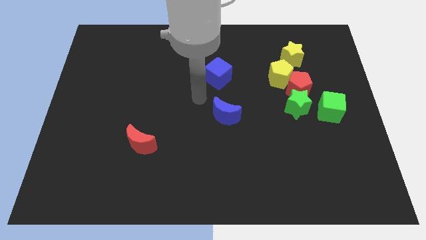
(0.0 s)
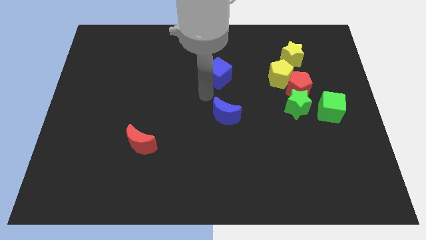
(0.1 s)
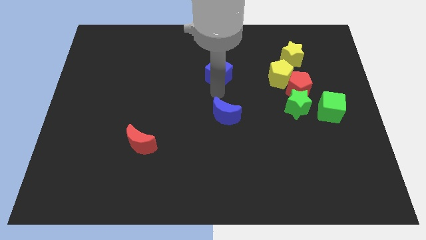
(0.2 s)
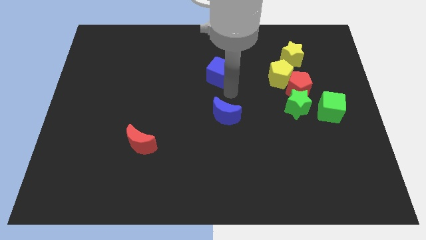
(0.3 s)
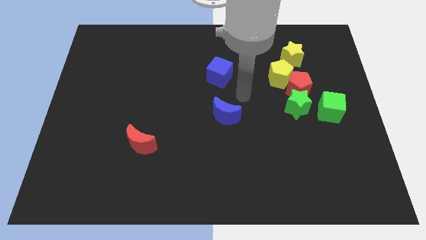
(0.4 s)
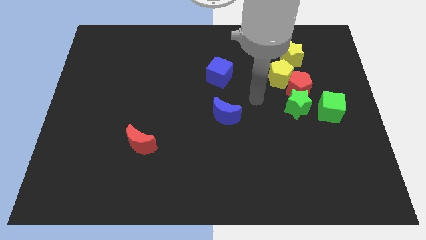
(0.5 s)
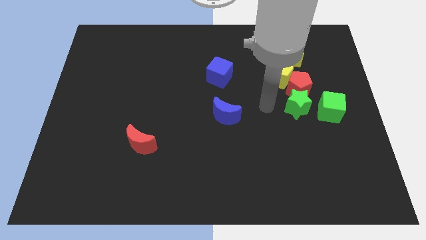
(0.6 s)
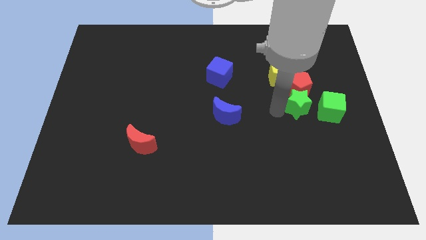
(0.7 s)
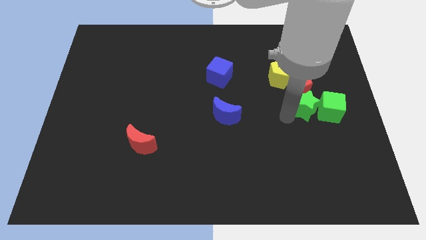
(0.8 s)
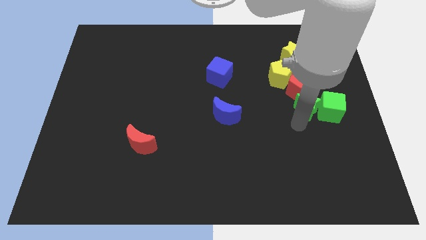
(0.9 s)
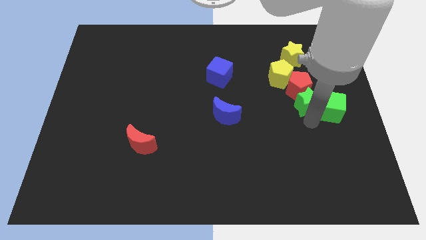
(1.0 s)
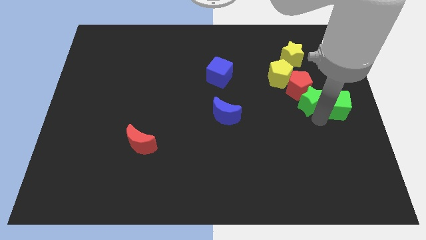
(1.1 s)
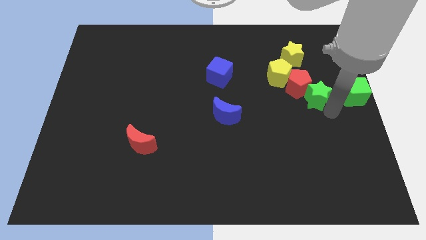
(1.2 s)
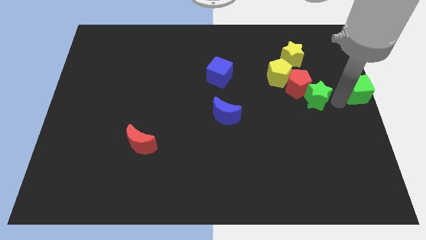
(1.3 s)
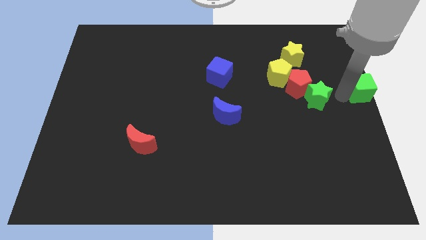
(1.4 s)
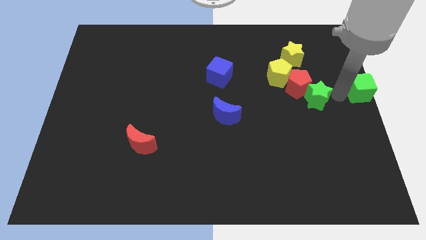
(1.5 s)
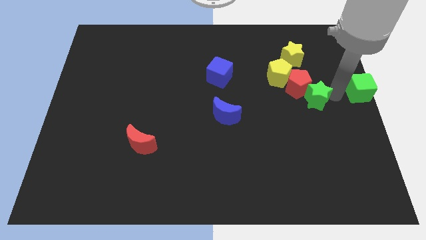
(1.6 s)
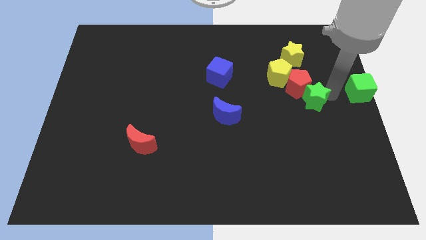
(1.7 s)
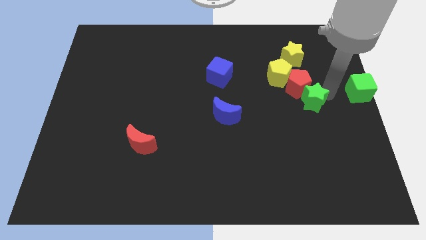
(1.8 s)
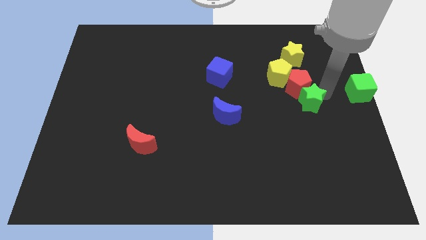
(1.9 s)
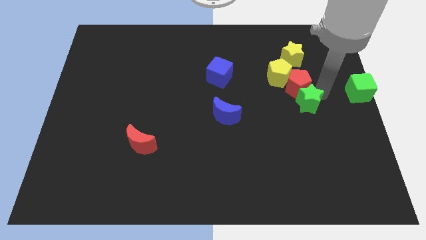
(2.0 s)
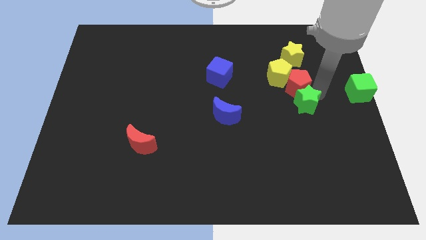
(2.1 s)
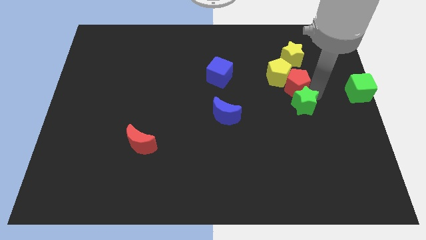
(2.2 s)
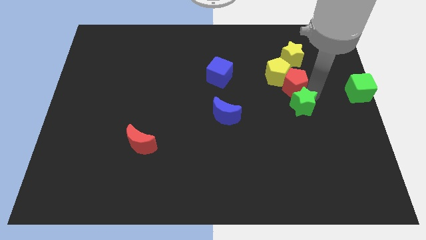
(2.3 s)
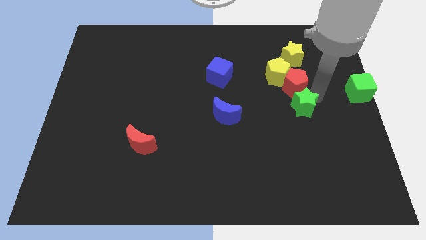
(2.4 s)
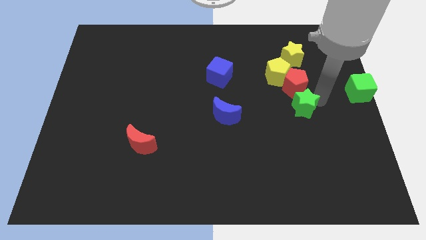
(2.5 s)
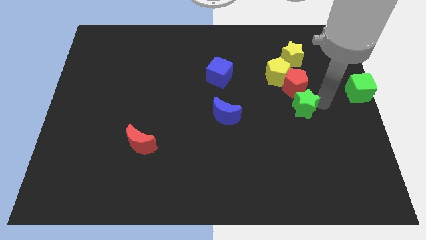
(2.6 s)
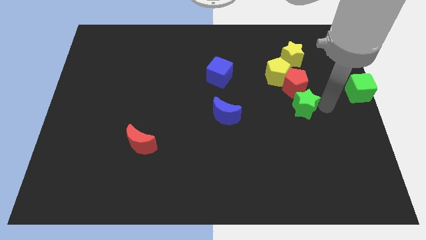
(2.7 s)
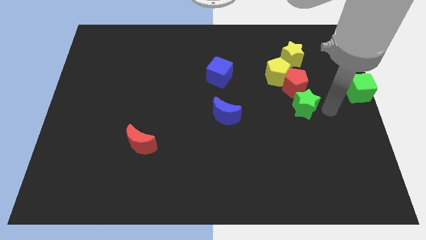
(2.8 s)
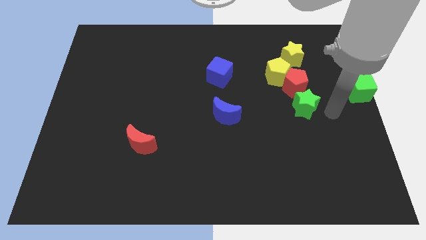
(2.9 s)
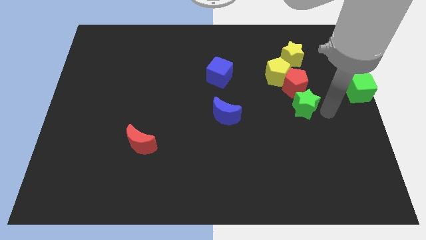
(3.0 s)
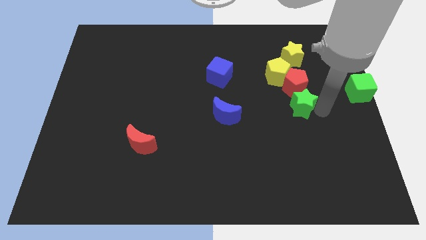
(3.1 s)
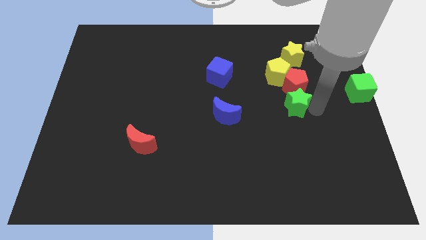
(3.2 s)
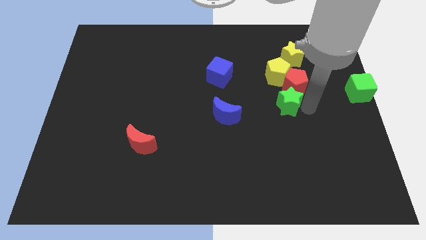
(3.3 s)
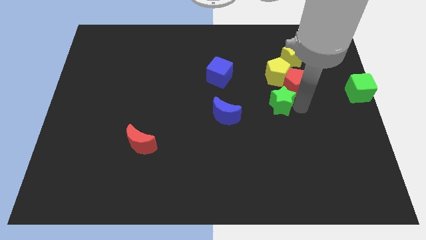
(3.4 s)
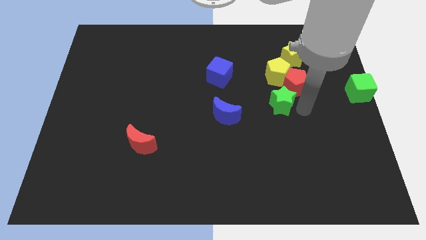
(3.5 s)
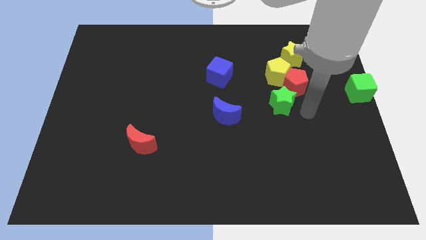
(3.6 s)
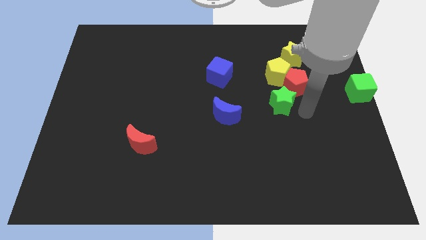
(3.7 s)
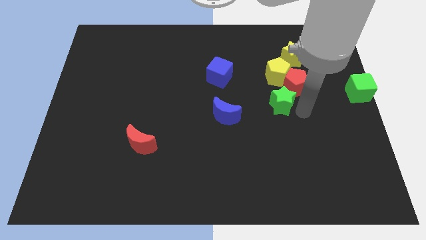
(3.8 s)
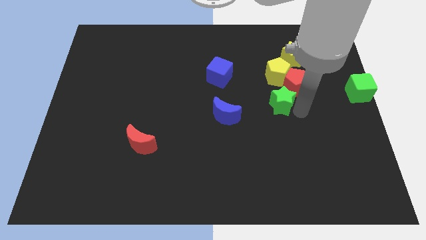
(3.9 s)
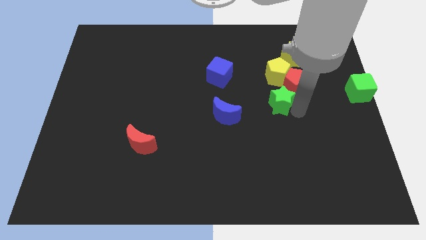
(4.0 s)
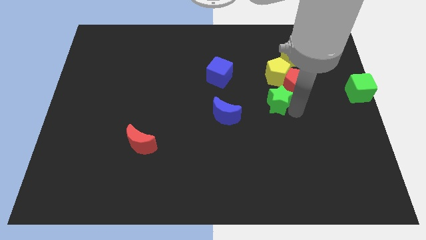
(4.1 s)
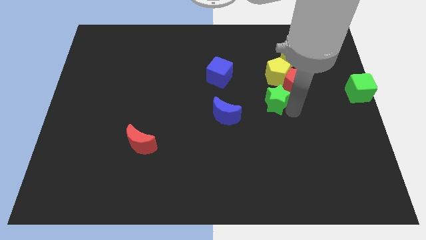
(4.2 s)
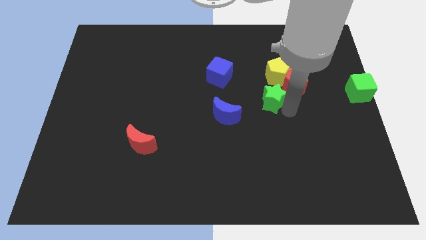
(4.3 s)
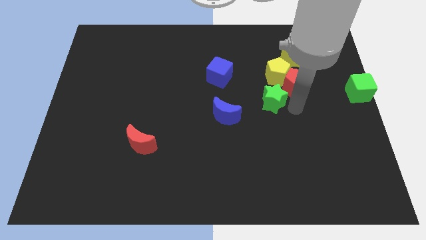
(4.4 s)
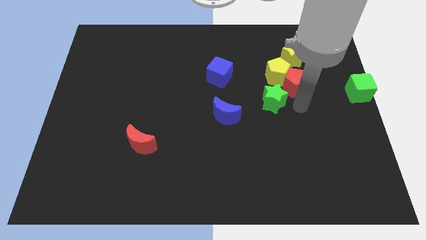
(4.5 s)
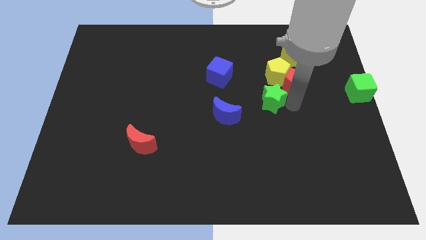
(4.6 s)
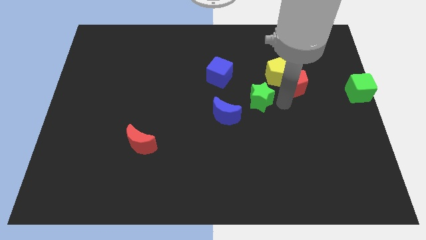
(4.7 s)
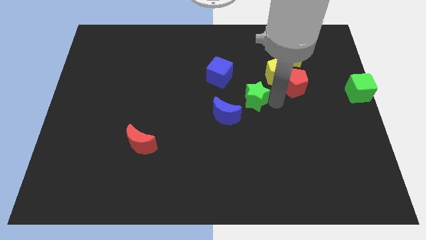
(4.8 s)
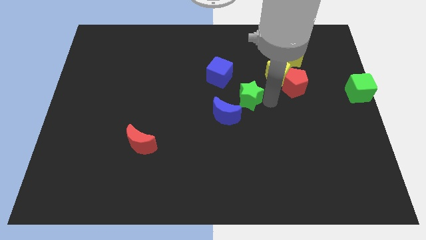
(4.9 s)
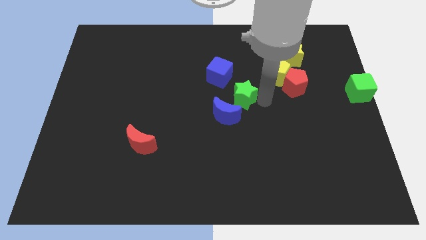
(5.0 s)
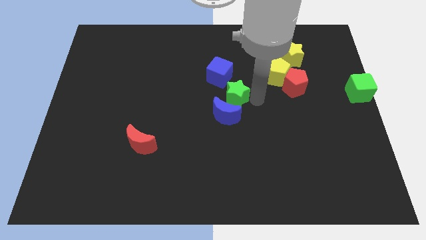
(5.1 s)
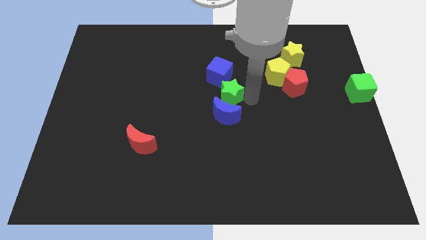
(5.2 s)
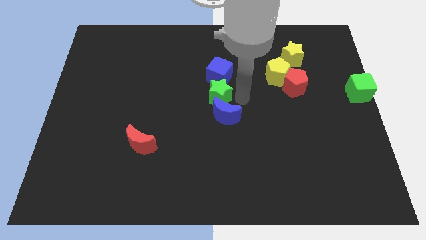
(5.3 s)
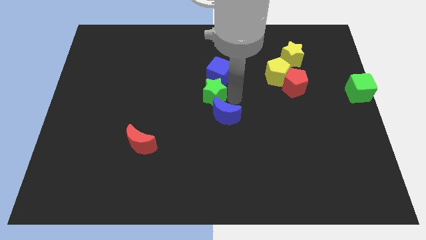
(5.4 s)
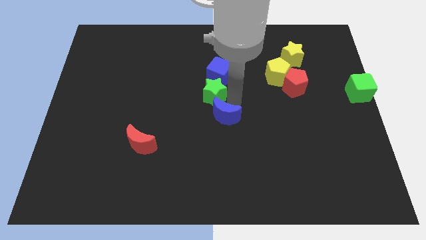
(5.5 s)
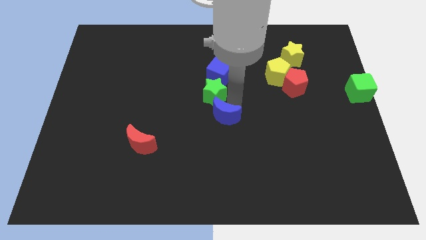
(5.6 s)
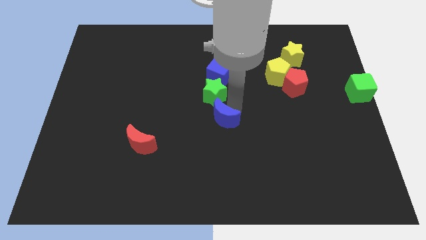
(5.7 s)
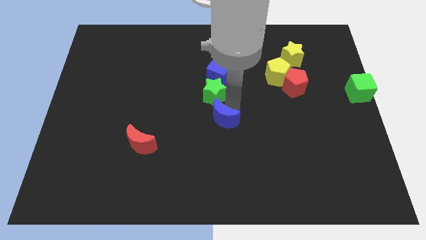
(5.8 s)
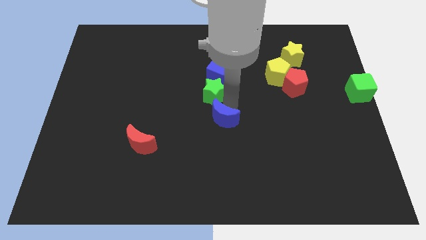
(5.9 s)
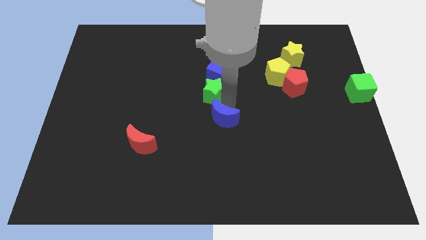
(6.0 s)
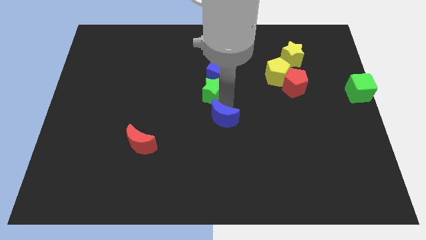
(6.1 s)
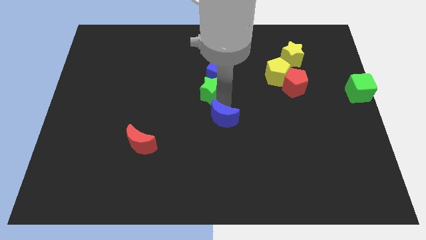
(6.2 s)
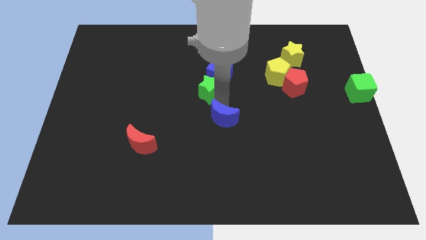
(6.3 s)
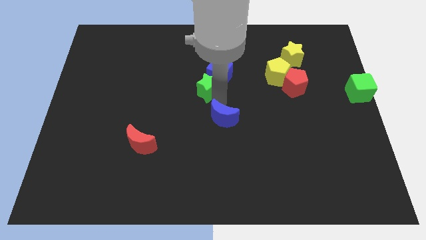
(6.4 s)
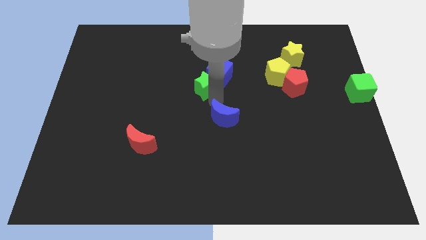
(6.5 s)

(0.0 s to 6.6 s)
push the green star to the left side of the blue cube
